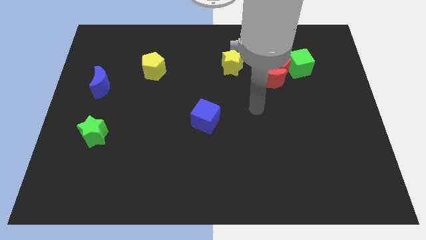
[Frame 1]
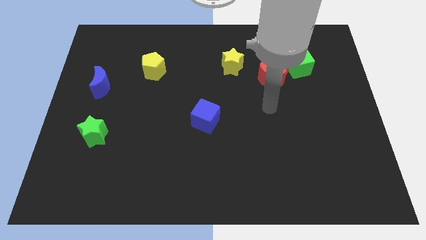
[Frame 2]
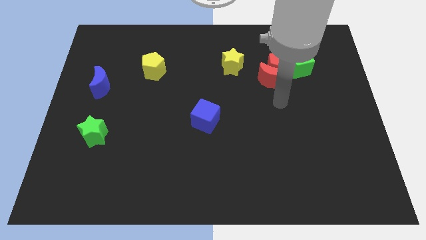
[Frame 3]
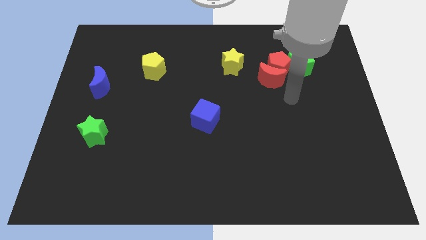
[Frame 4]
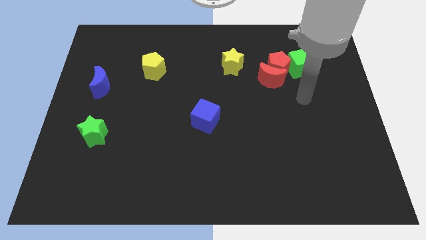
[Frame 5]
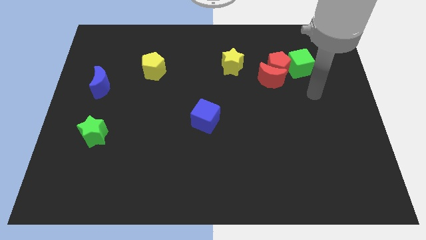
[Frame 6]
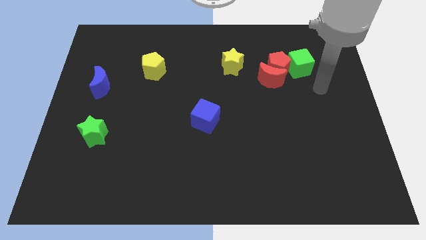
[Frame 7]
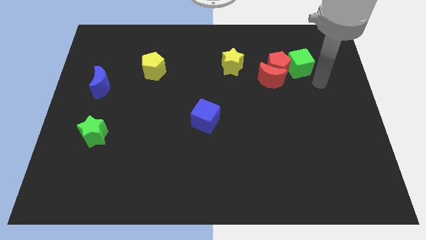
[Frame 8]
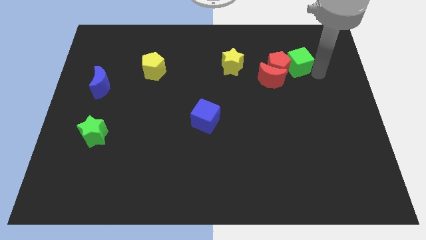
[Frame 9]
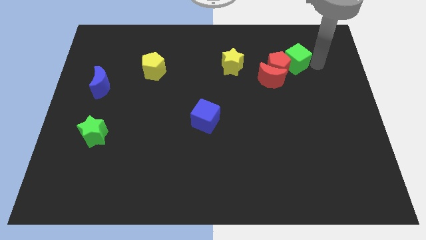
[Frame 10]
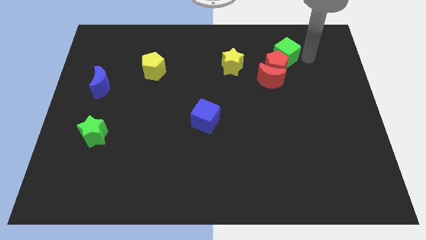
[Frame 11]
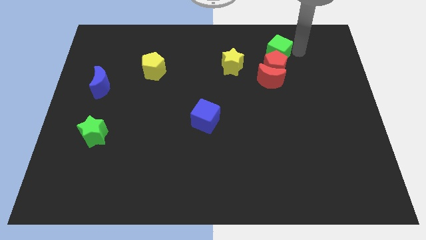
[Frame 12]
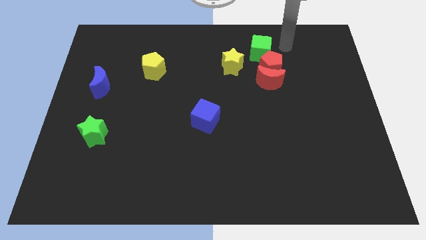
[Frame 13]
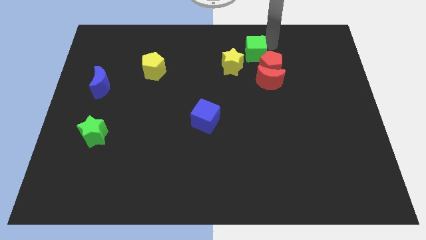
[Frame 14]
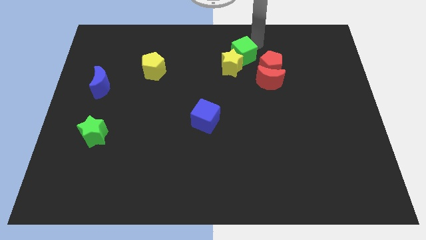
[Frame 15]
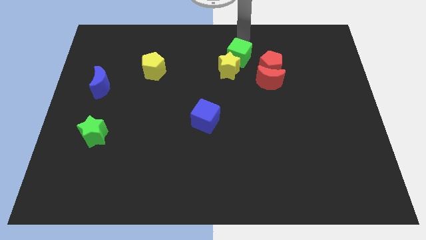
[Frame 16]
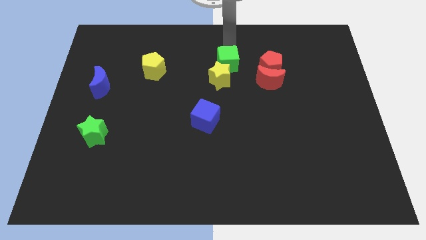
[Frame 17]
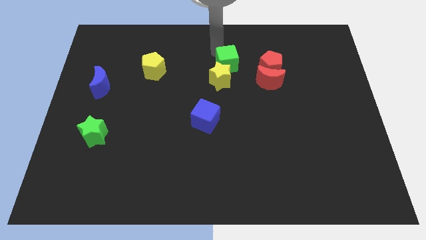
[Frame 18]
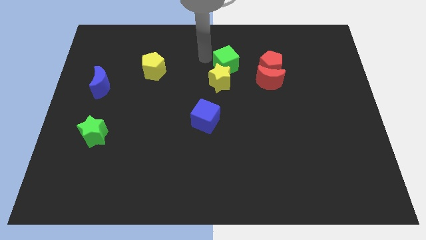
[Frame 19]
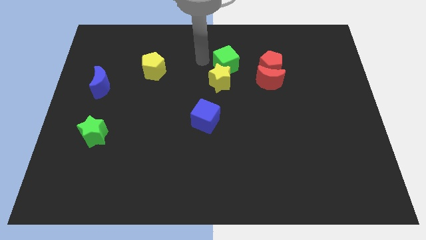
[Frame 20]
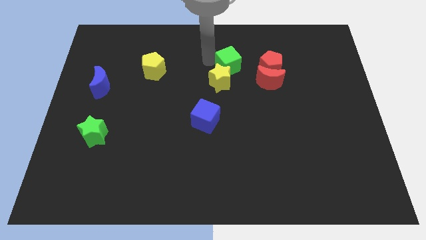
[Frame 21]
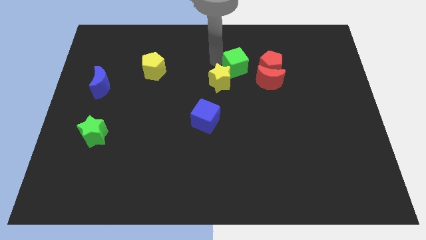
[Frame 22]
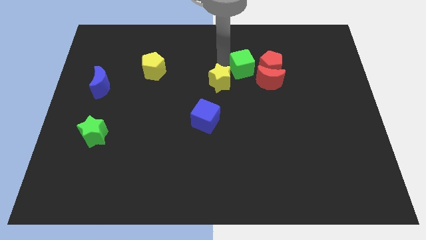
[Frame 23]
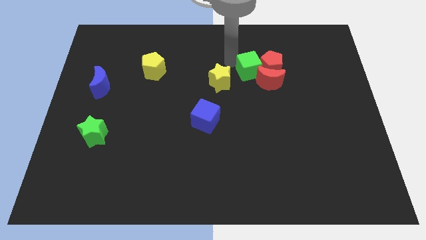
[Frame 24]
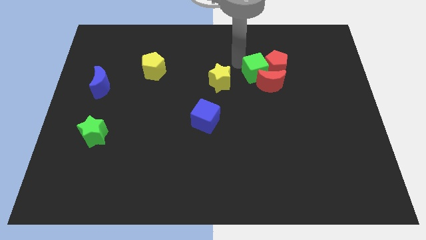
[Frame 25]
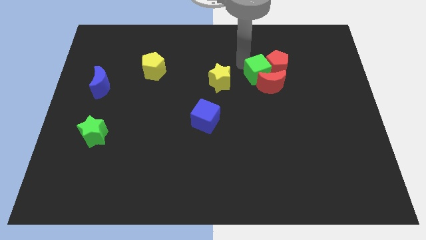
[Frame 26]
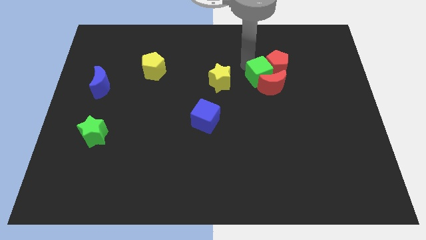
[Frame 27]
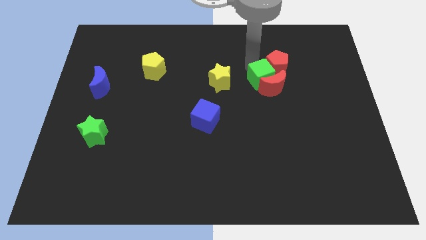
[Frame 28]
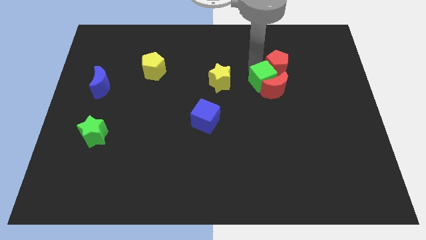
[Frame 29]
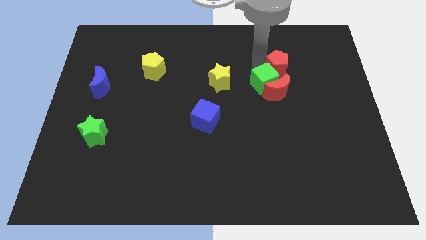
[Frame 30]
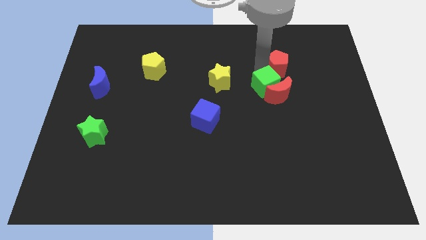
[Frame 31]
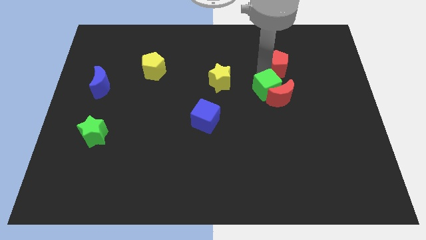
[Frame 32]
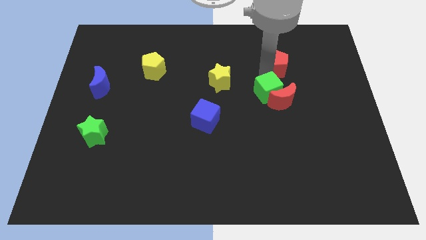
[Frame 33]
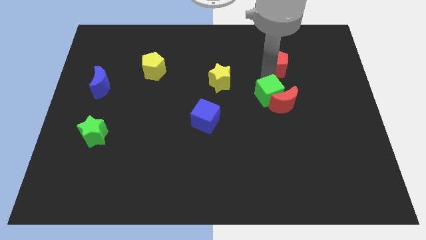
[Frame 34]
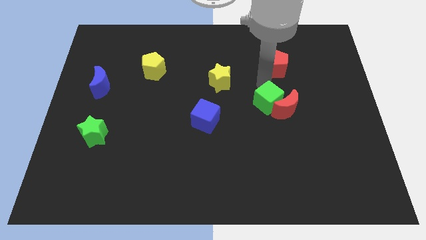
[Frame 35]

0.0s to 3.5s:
push the green cube downwards a little bit

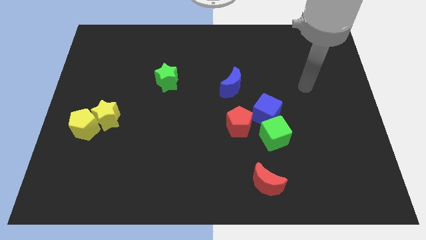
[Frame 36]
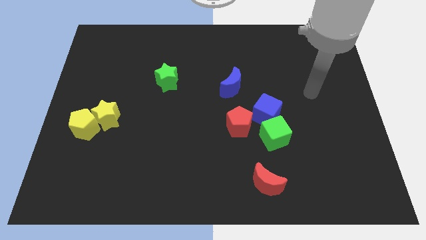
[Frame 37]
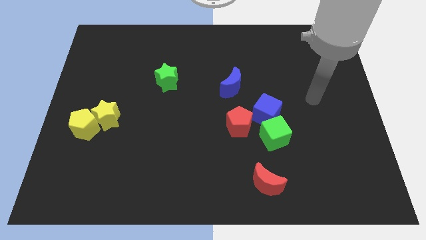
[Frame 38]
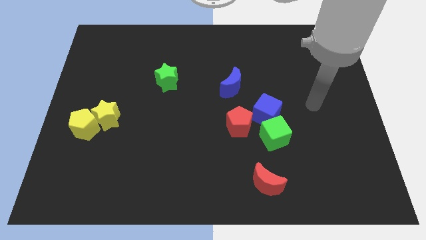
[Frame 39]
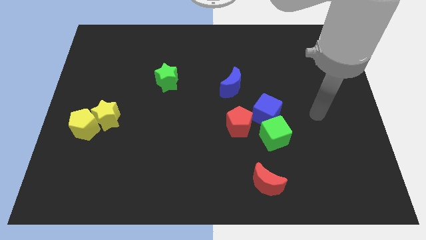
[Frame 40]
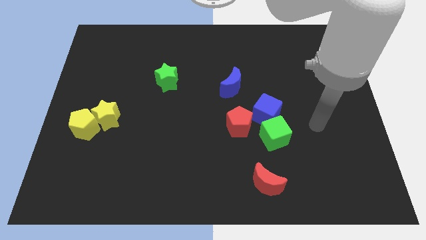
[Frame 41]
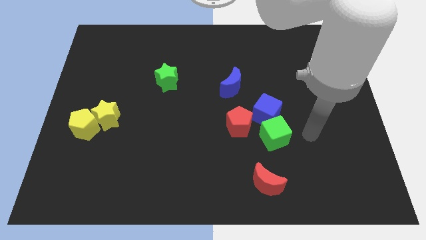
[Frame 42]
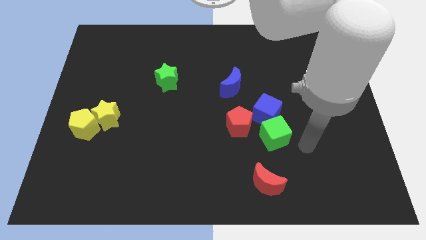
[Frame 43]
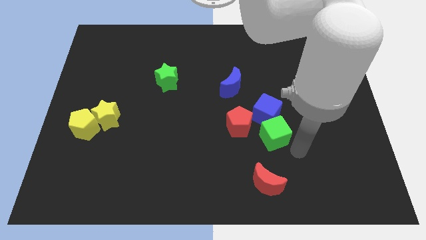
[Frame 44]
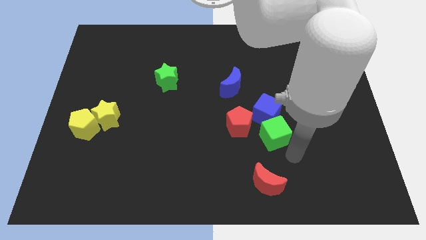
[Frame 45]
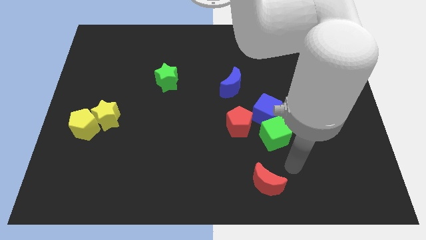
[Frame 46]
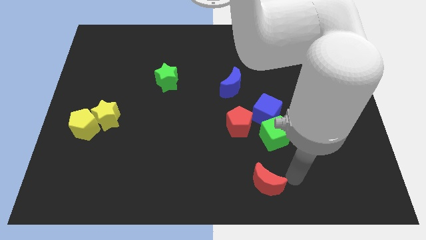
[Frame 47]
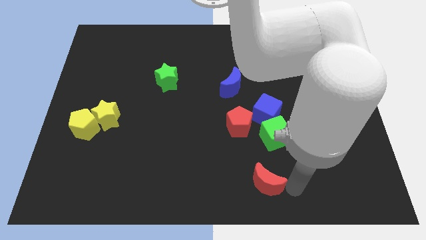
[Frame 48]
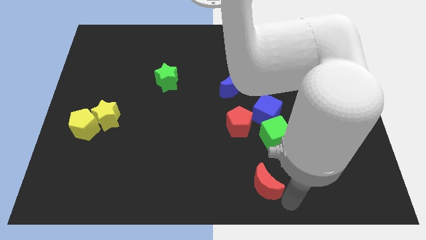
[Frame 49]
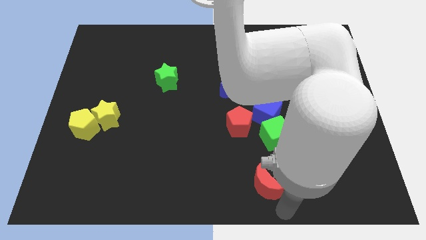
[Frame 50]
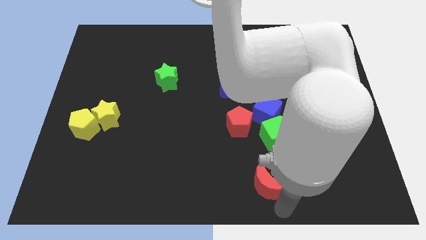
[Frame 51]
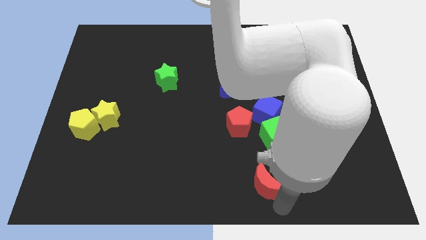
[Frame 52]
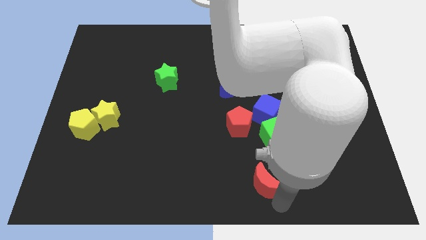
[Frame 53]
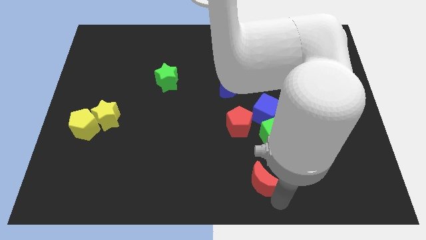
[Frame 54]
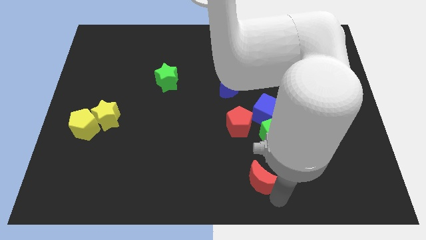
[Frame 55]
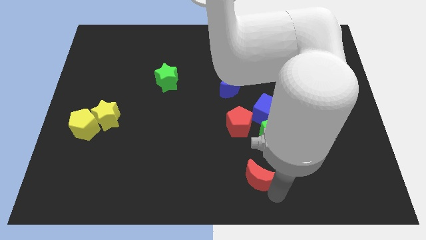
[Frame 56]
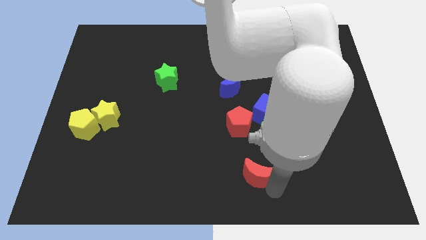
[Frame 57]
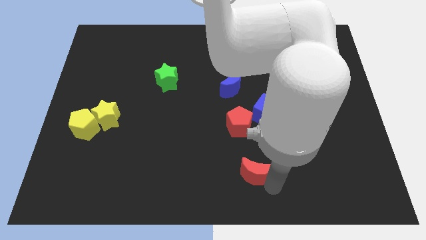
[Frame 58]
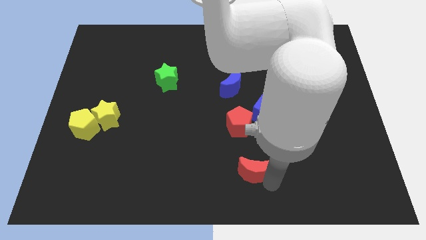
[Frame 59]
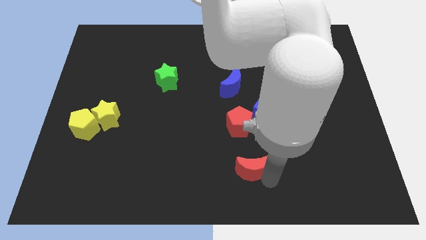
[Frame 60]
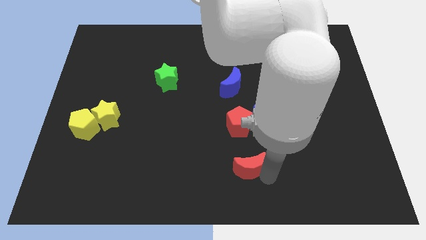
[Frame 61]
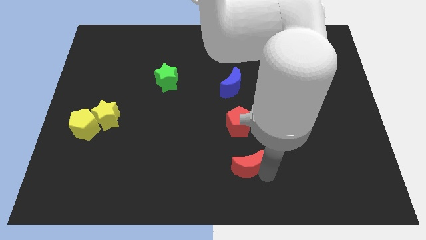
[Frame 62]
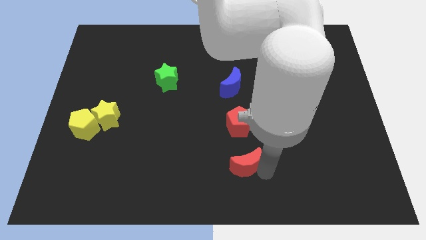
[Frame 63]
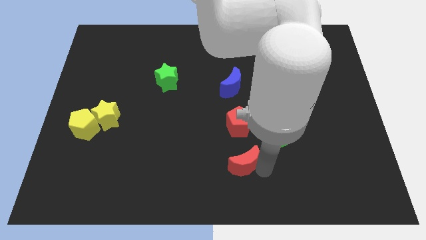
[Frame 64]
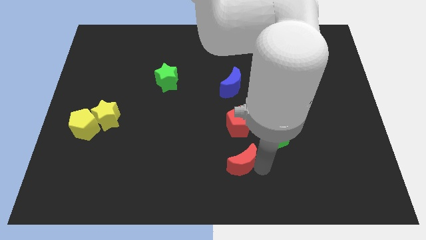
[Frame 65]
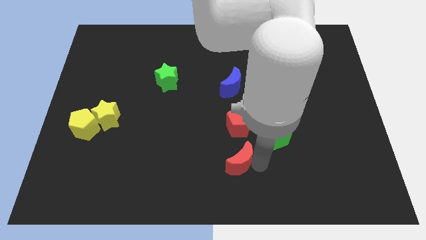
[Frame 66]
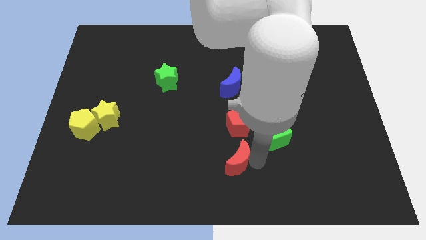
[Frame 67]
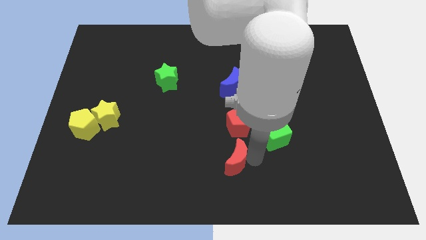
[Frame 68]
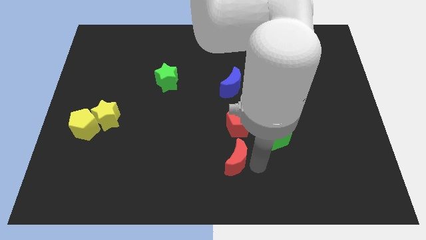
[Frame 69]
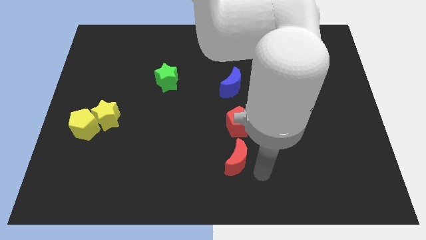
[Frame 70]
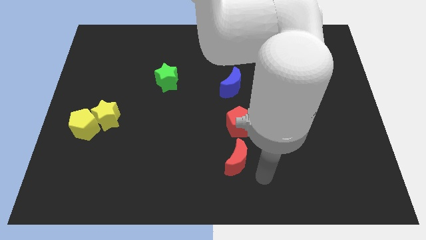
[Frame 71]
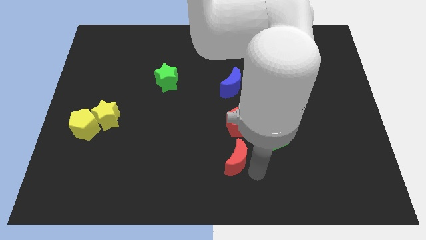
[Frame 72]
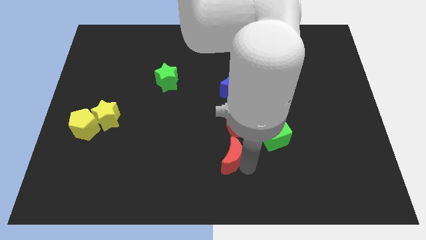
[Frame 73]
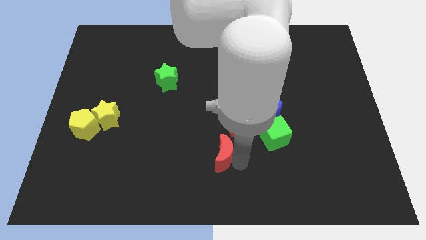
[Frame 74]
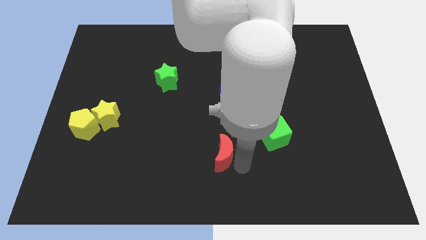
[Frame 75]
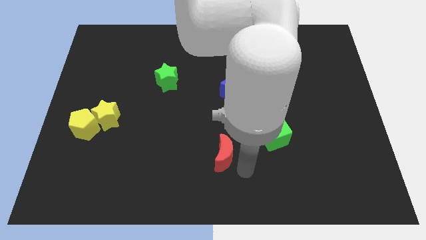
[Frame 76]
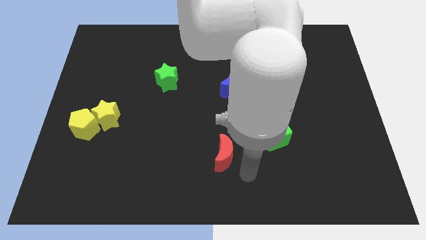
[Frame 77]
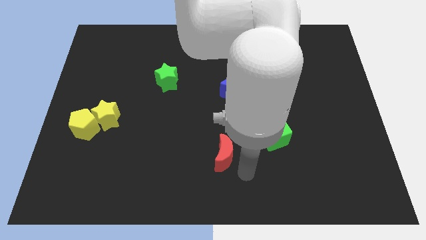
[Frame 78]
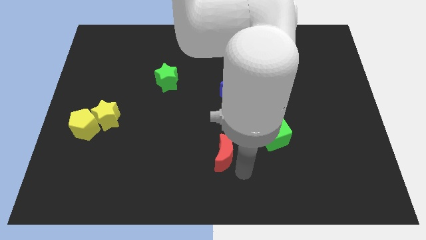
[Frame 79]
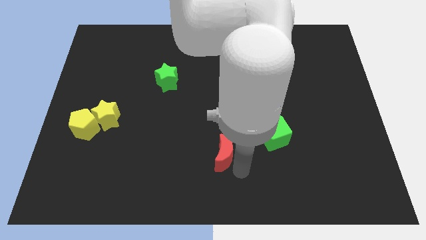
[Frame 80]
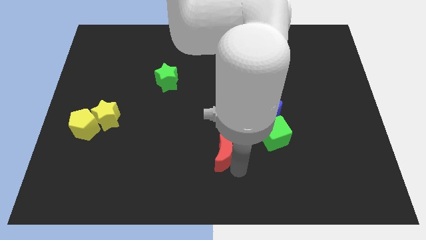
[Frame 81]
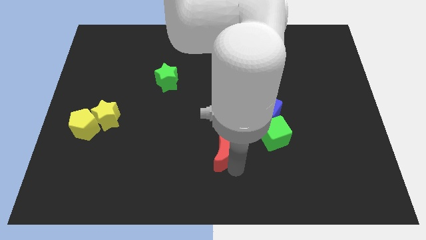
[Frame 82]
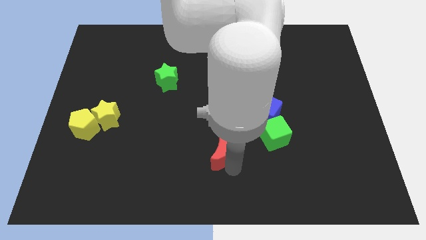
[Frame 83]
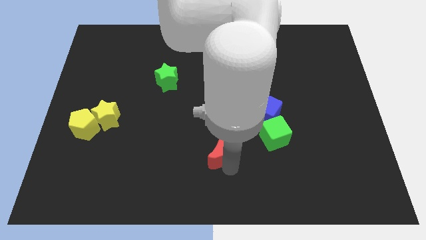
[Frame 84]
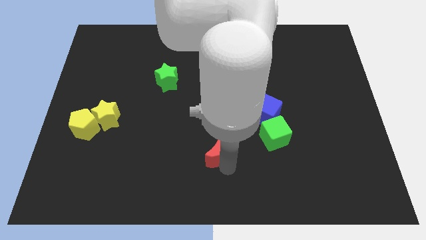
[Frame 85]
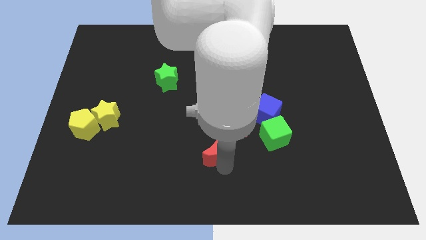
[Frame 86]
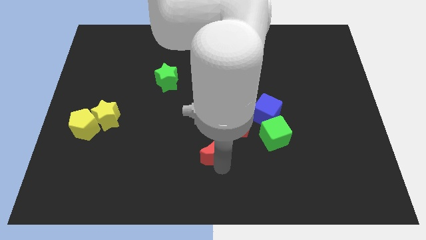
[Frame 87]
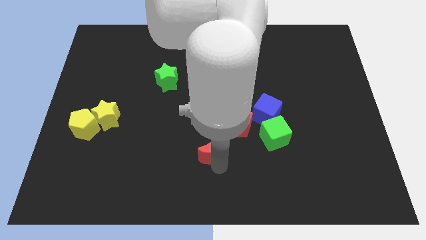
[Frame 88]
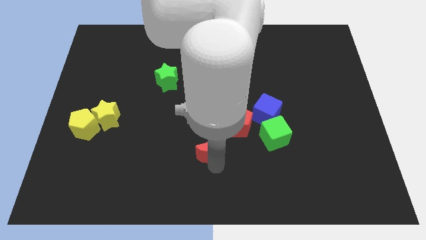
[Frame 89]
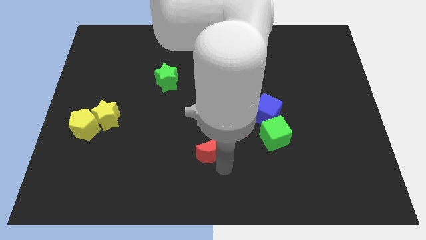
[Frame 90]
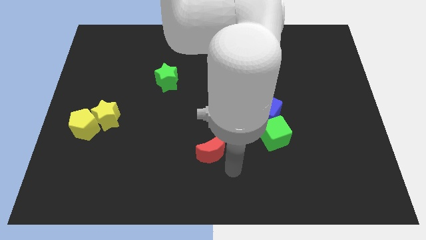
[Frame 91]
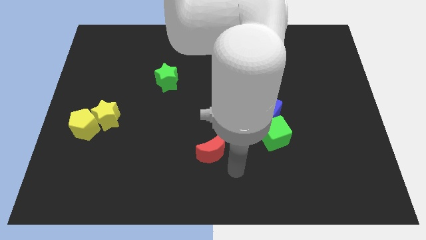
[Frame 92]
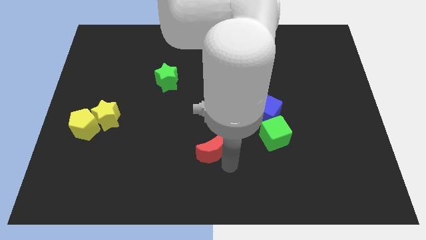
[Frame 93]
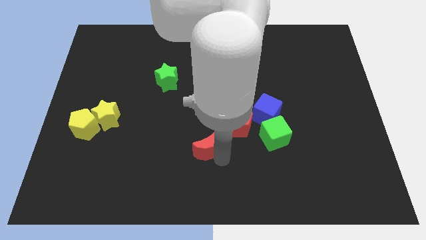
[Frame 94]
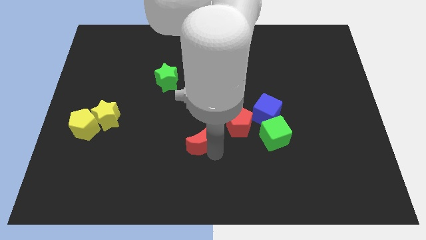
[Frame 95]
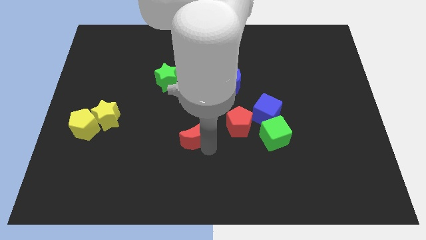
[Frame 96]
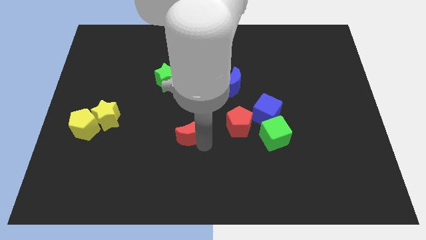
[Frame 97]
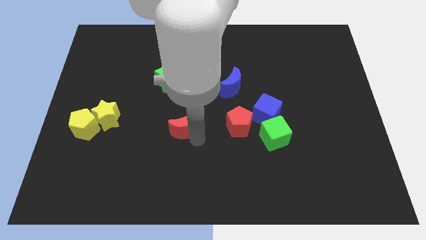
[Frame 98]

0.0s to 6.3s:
slide the red moon up and then to the left
